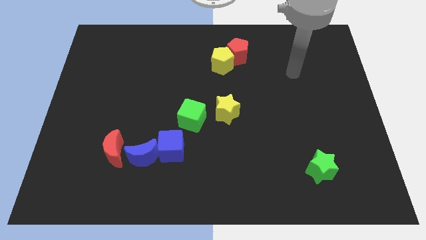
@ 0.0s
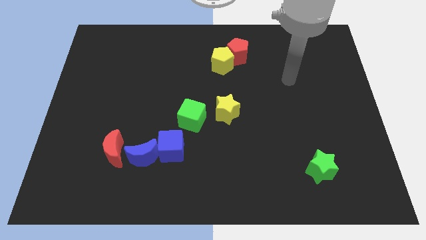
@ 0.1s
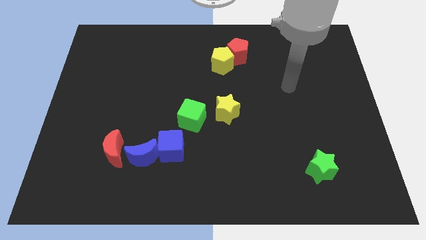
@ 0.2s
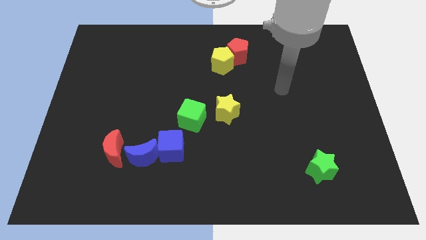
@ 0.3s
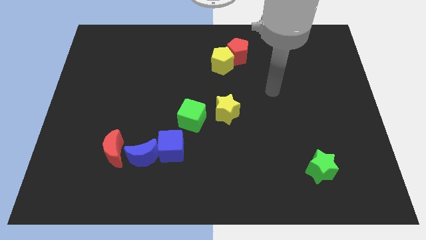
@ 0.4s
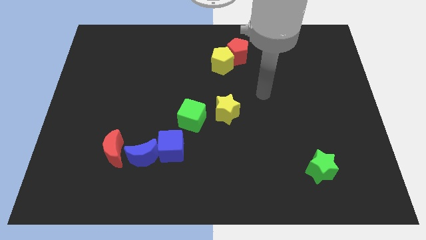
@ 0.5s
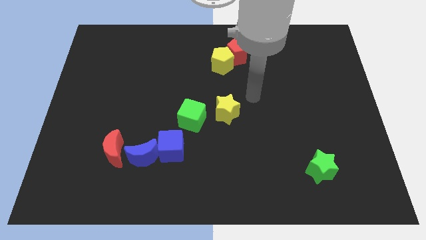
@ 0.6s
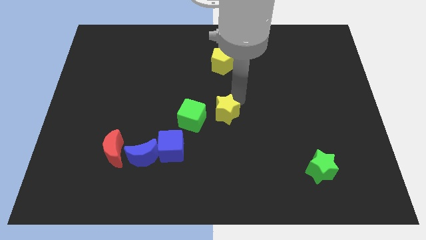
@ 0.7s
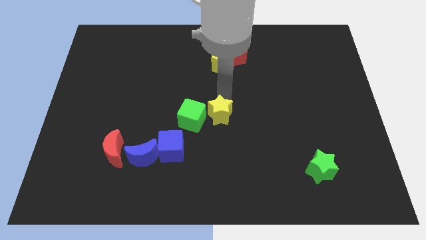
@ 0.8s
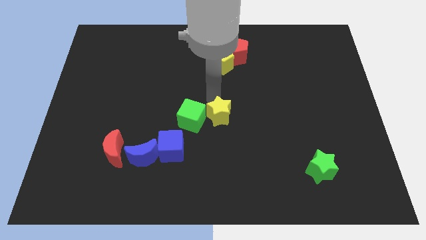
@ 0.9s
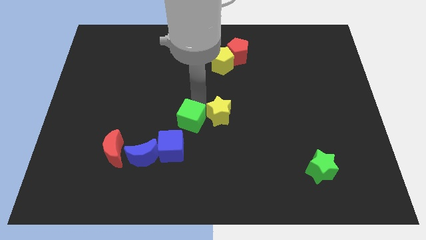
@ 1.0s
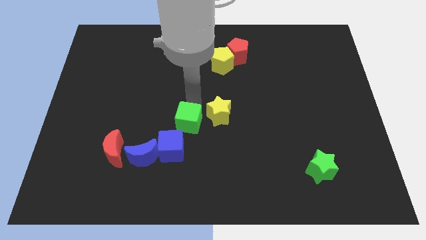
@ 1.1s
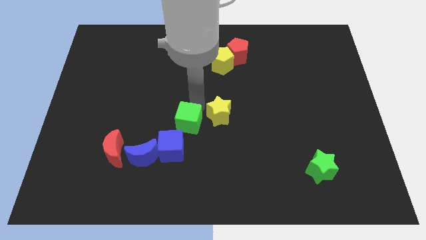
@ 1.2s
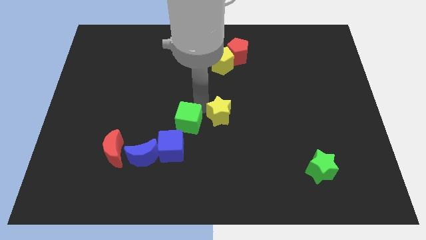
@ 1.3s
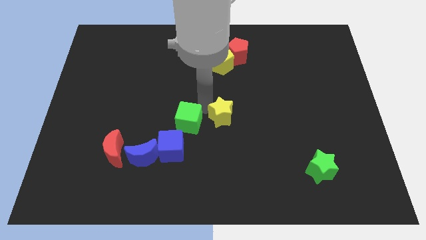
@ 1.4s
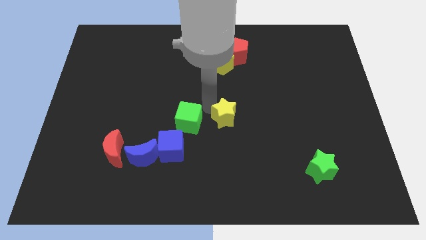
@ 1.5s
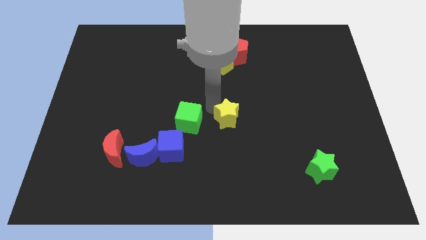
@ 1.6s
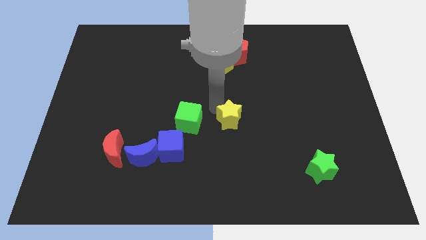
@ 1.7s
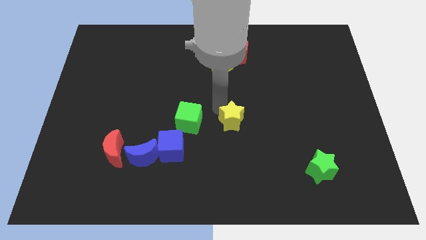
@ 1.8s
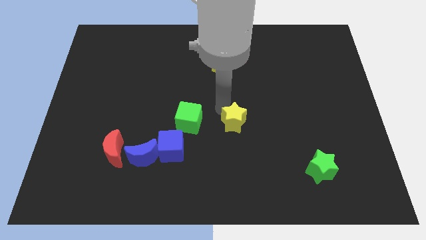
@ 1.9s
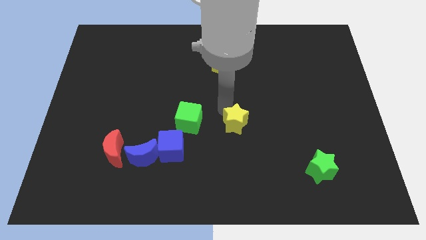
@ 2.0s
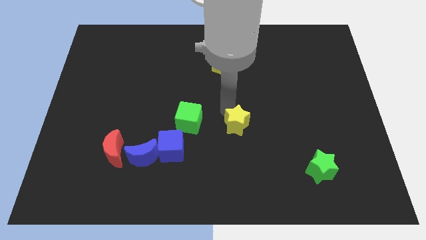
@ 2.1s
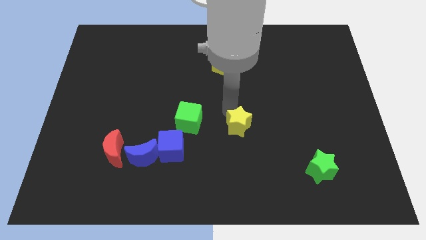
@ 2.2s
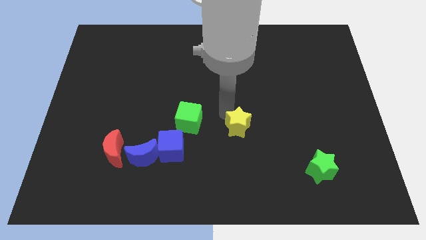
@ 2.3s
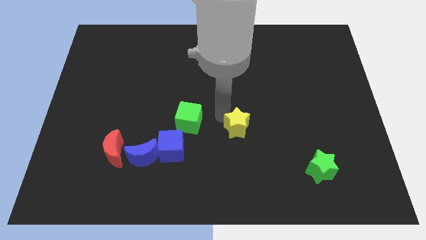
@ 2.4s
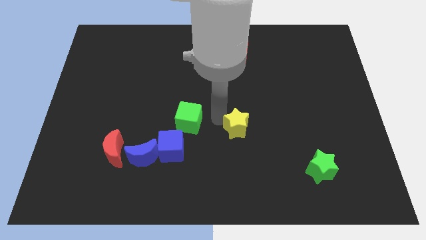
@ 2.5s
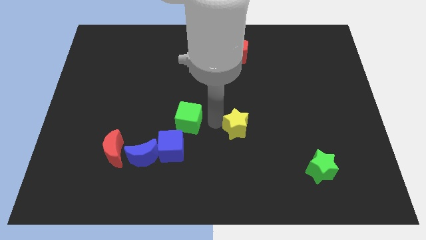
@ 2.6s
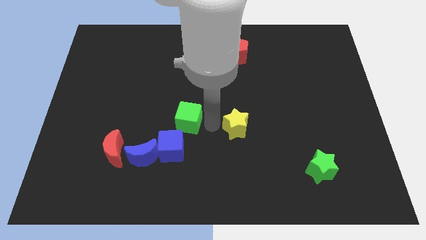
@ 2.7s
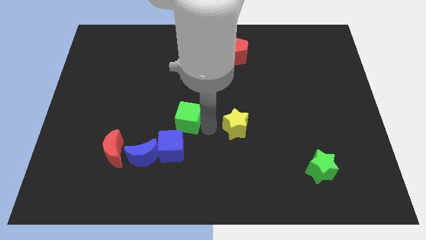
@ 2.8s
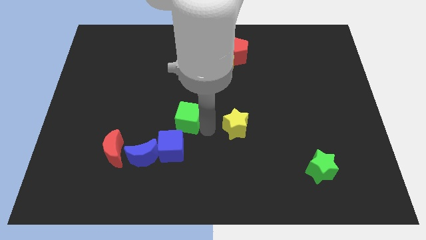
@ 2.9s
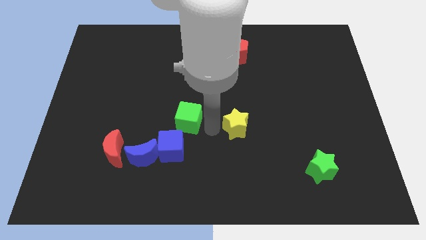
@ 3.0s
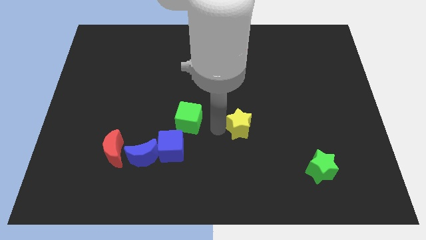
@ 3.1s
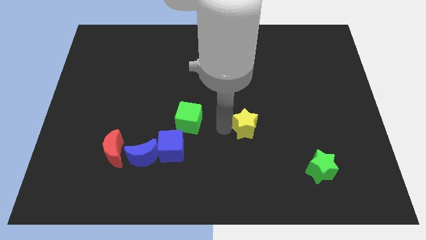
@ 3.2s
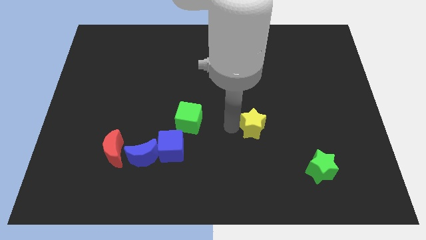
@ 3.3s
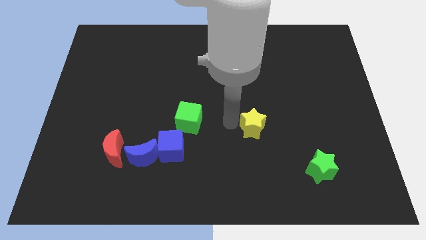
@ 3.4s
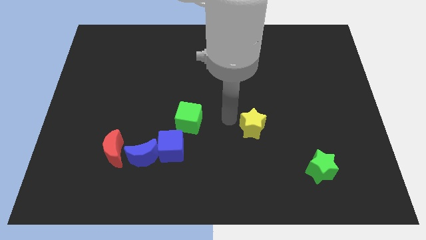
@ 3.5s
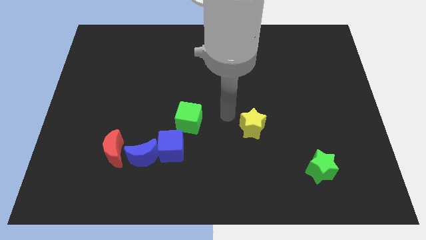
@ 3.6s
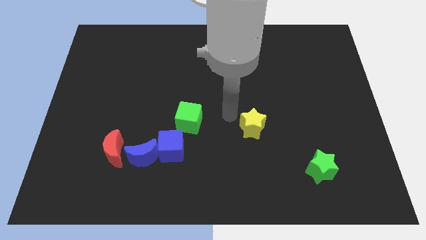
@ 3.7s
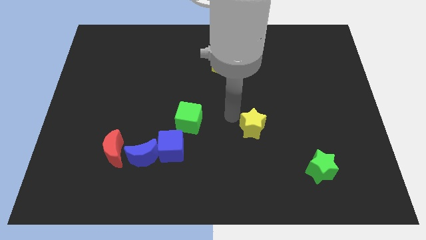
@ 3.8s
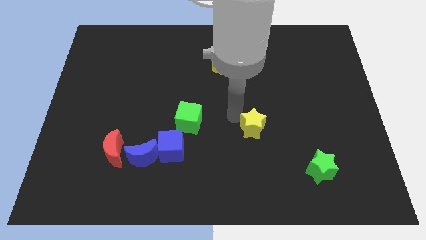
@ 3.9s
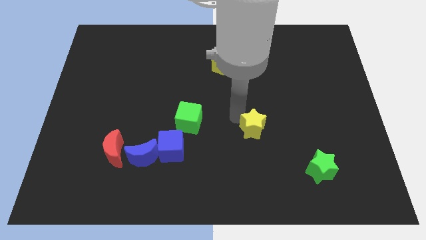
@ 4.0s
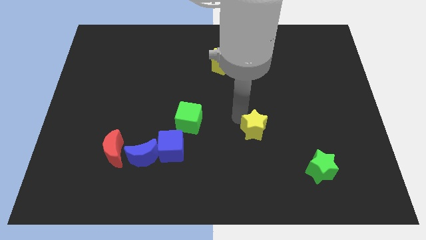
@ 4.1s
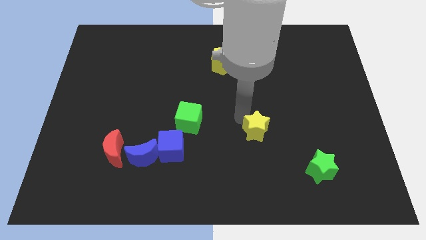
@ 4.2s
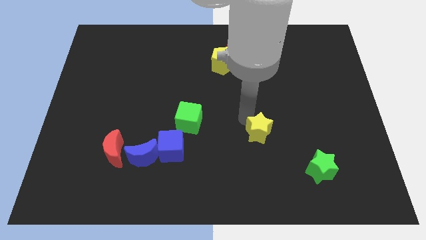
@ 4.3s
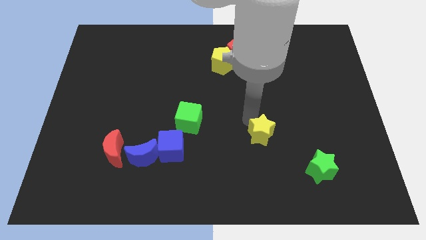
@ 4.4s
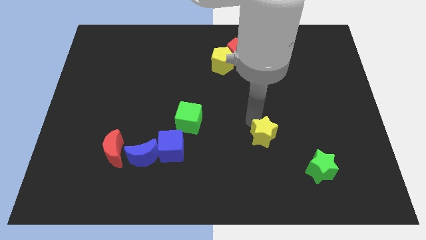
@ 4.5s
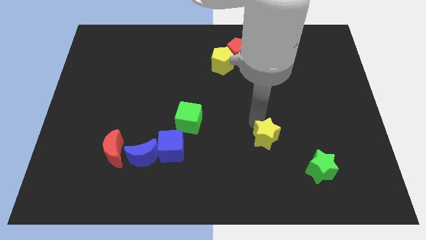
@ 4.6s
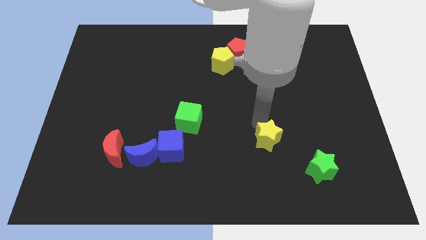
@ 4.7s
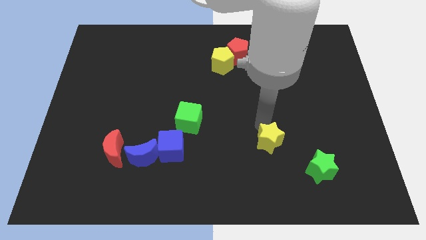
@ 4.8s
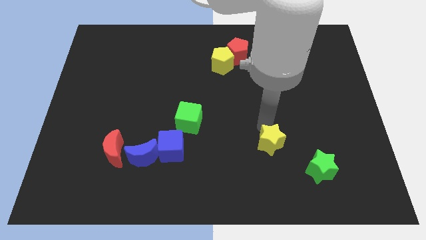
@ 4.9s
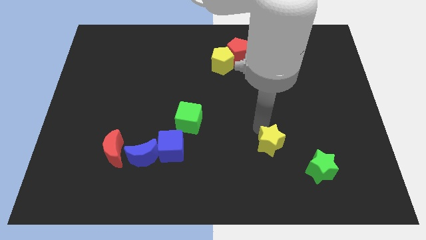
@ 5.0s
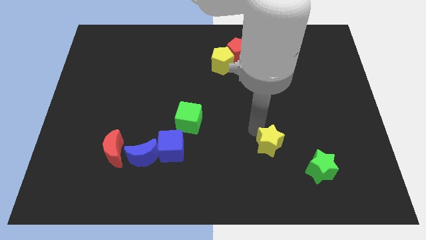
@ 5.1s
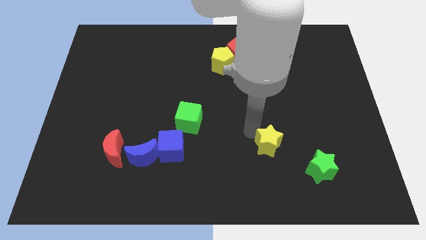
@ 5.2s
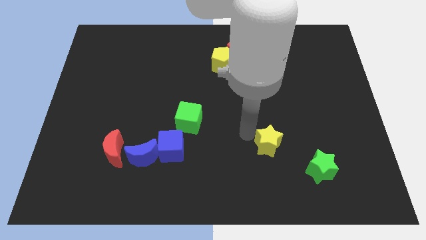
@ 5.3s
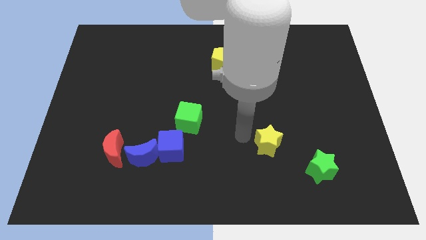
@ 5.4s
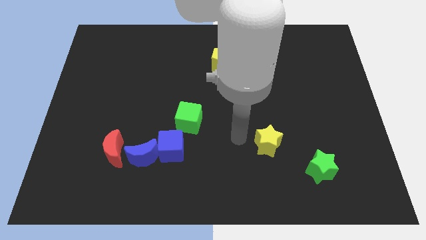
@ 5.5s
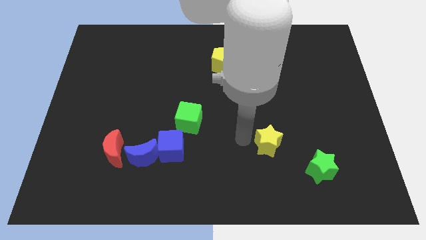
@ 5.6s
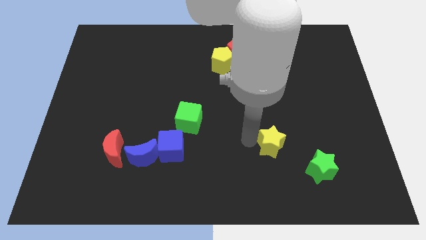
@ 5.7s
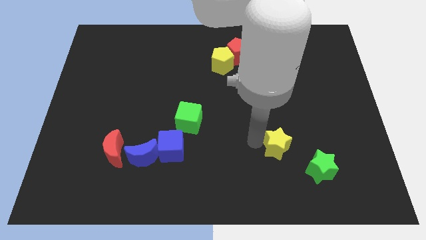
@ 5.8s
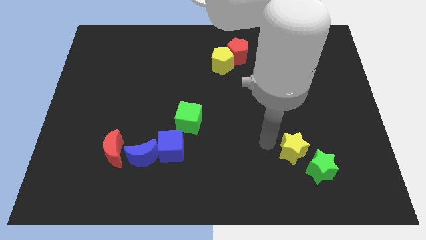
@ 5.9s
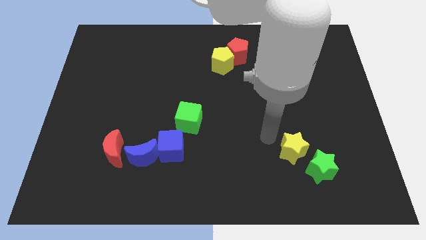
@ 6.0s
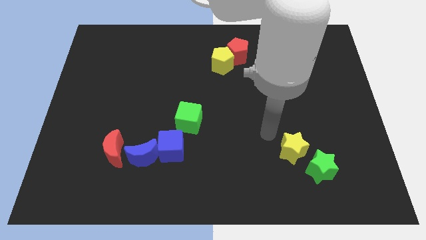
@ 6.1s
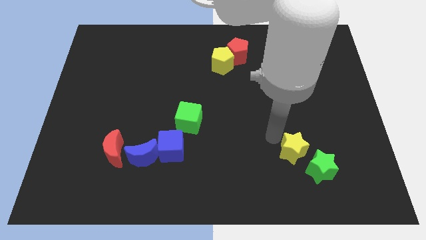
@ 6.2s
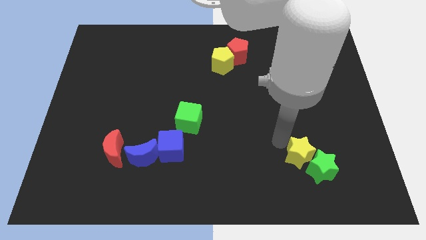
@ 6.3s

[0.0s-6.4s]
push the yellow star close to the green star

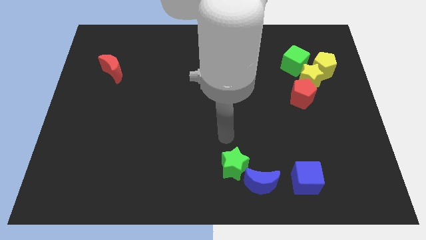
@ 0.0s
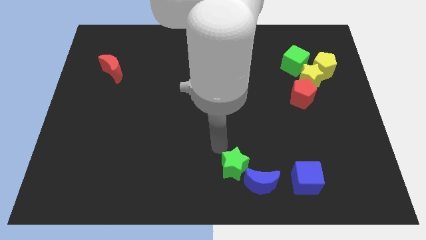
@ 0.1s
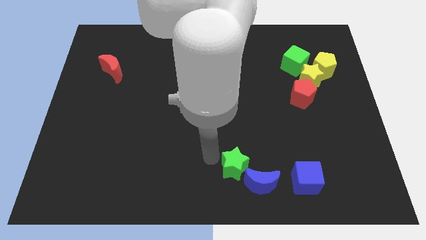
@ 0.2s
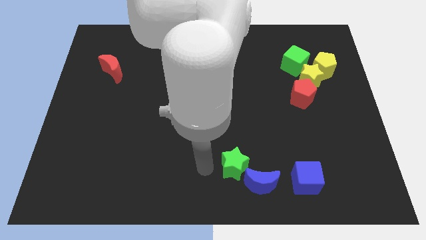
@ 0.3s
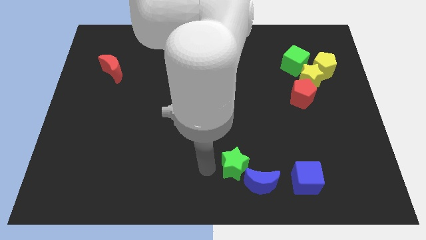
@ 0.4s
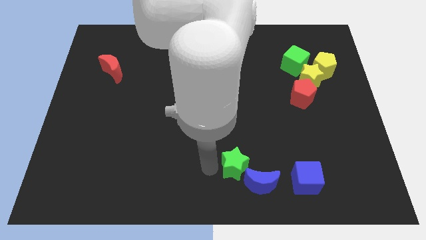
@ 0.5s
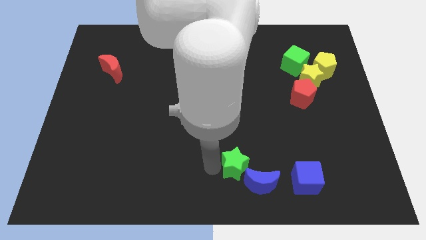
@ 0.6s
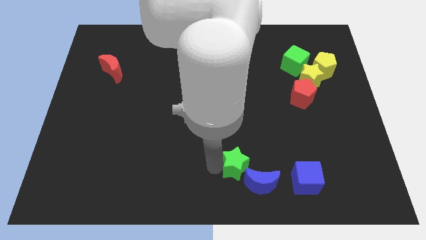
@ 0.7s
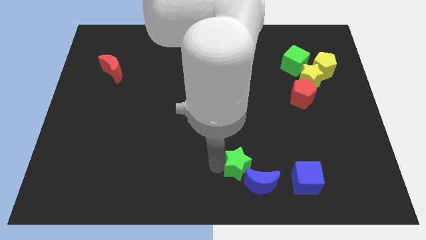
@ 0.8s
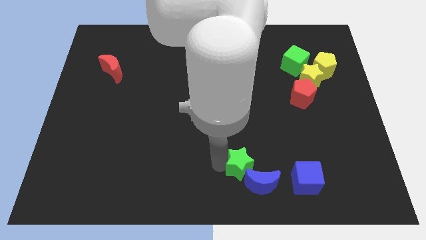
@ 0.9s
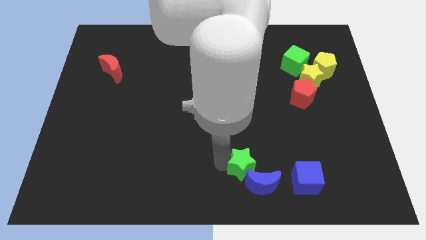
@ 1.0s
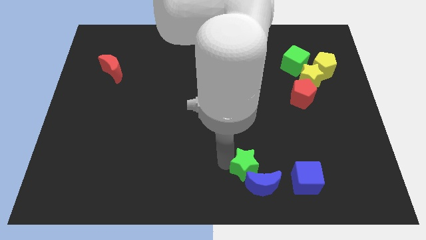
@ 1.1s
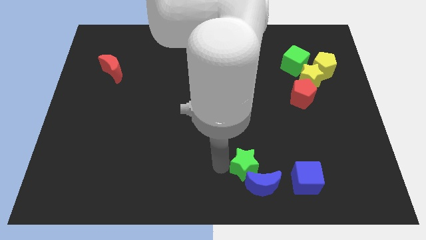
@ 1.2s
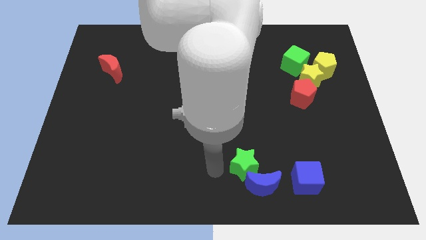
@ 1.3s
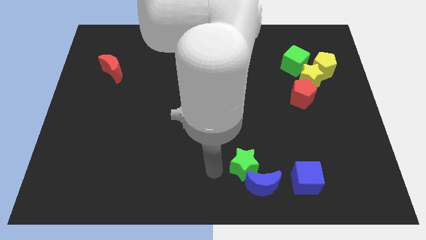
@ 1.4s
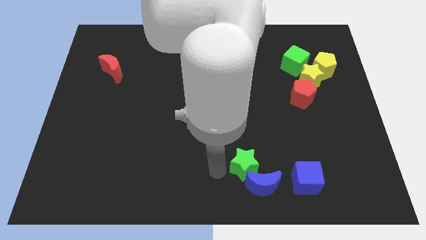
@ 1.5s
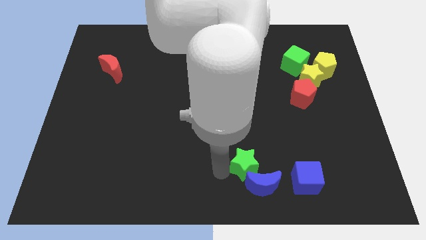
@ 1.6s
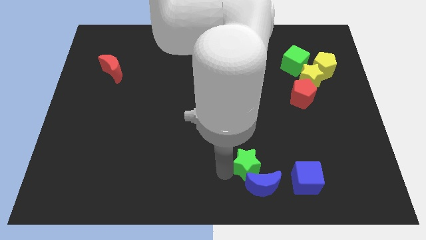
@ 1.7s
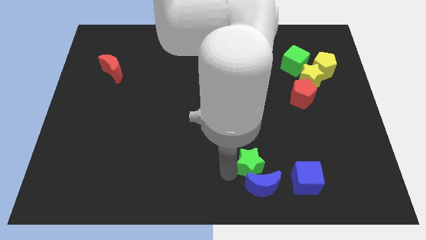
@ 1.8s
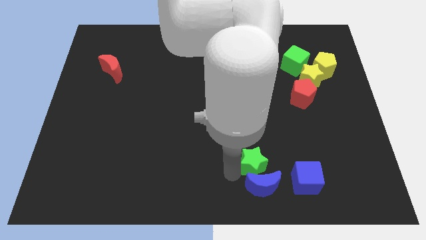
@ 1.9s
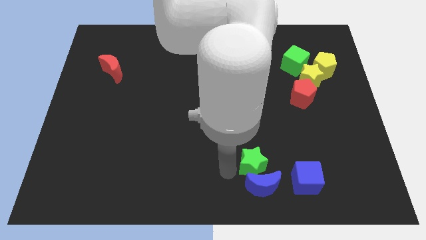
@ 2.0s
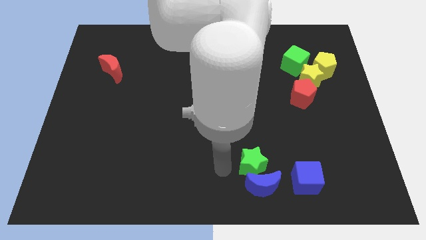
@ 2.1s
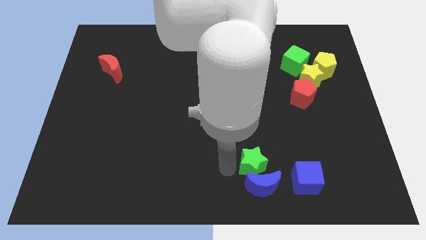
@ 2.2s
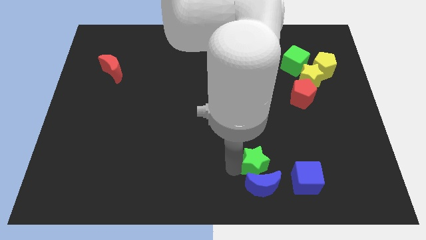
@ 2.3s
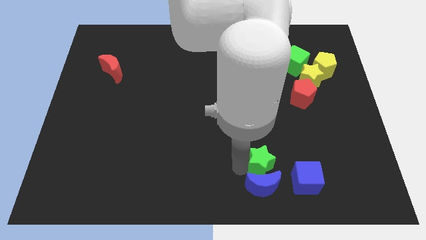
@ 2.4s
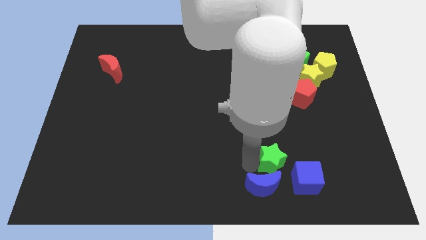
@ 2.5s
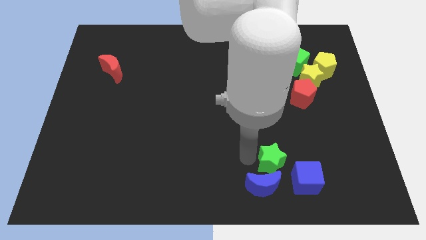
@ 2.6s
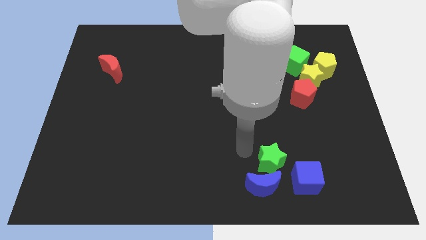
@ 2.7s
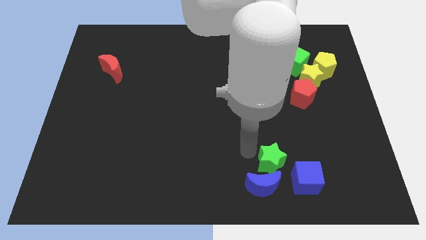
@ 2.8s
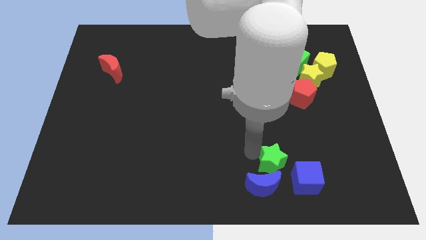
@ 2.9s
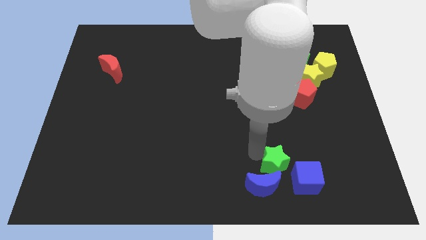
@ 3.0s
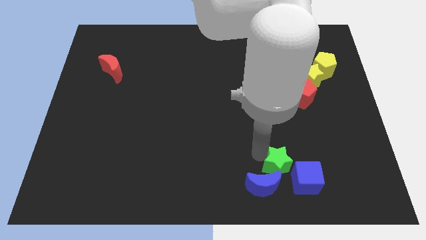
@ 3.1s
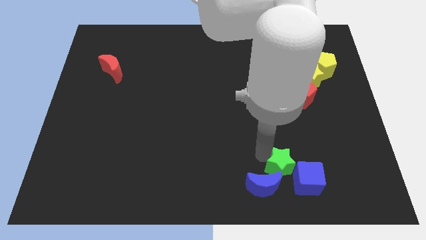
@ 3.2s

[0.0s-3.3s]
slide the green star close to the blue cube
